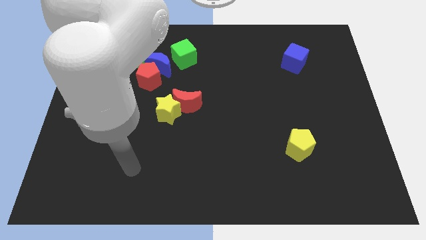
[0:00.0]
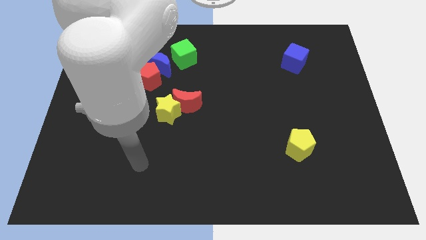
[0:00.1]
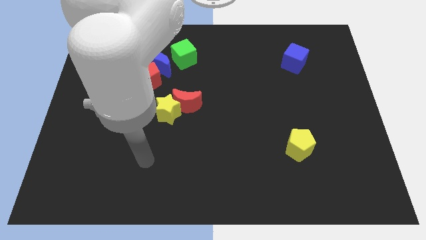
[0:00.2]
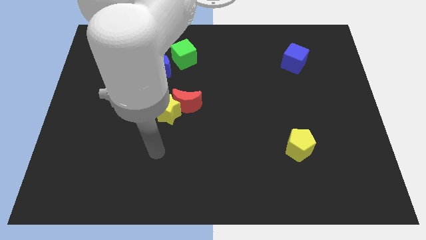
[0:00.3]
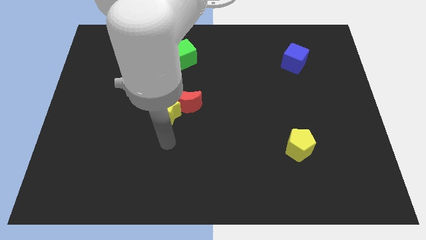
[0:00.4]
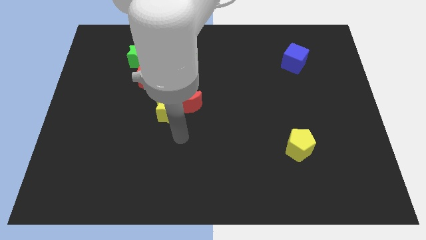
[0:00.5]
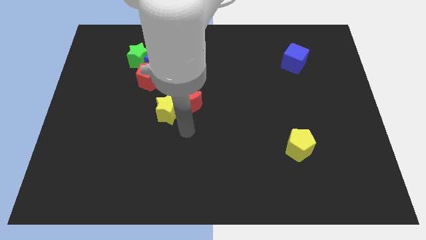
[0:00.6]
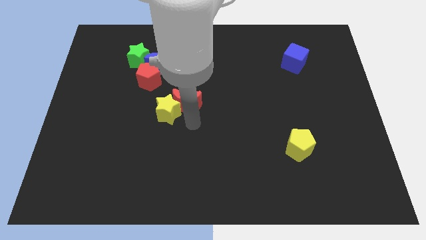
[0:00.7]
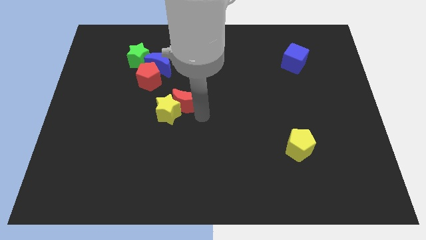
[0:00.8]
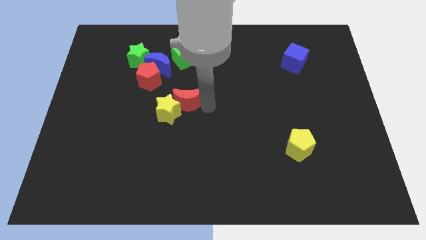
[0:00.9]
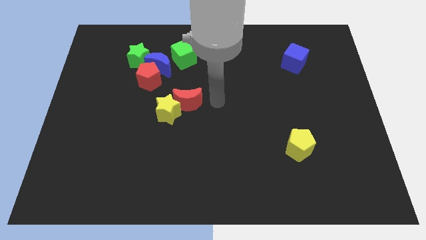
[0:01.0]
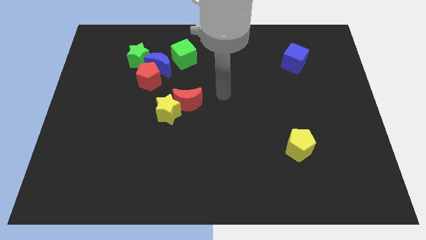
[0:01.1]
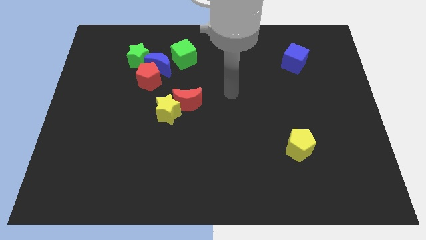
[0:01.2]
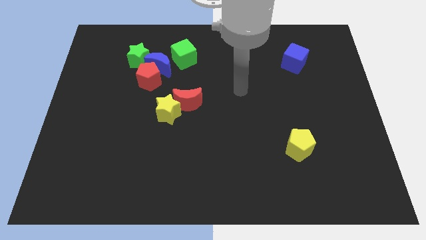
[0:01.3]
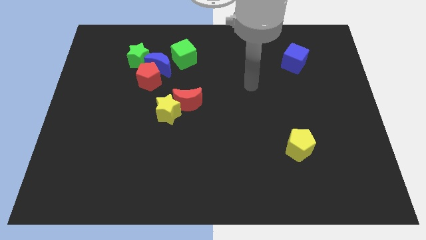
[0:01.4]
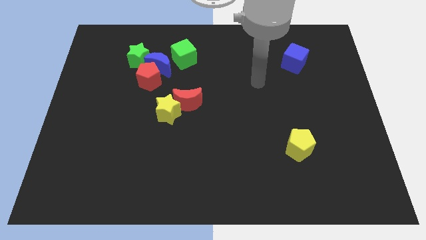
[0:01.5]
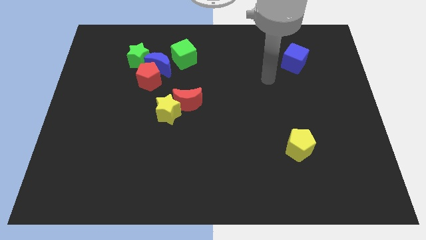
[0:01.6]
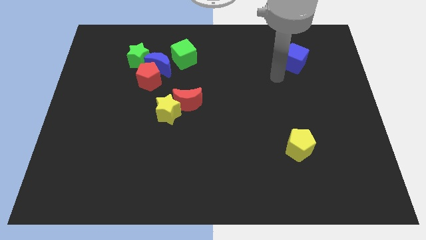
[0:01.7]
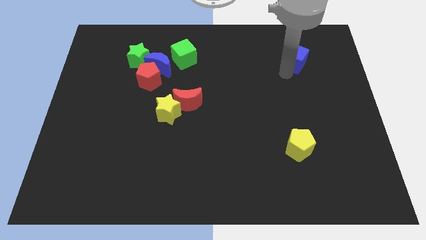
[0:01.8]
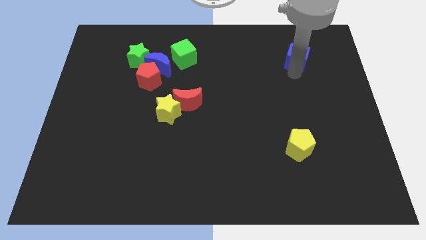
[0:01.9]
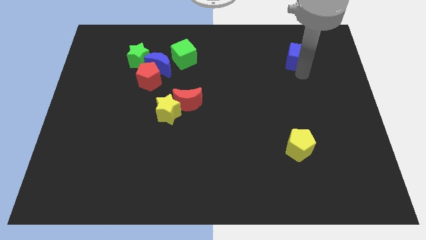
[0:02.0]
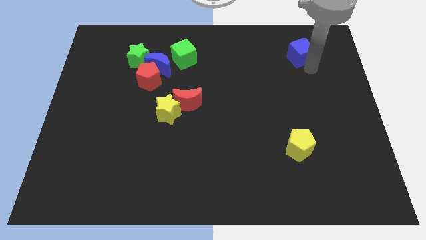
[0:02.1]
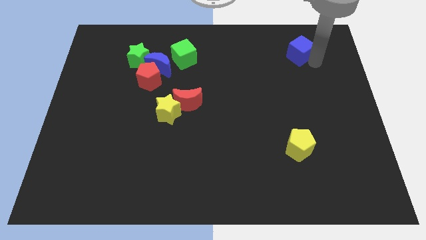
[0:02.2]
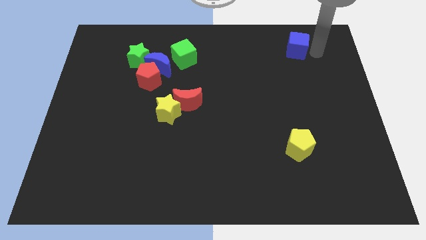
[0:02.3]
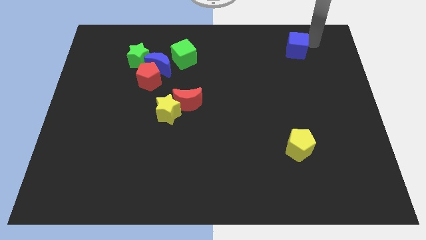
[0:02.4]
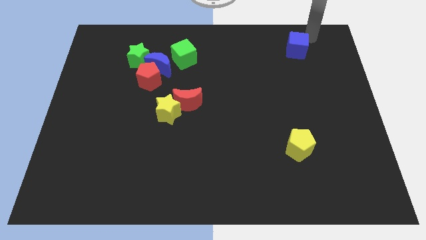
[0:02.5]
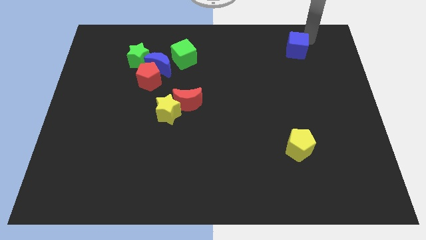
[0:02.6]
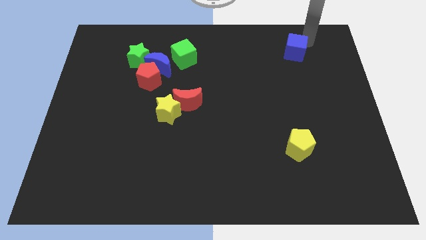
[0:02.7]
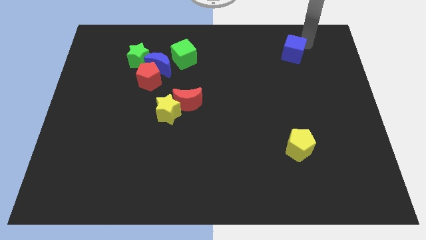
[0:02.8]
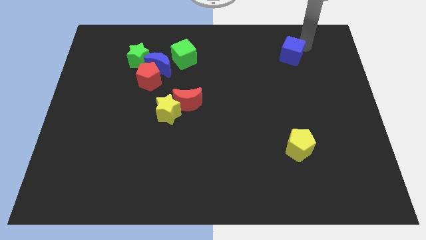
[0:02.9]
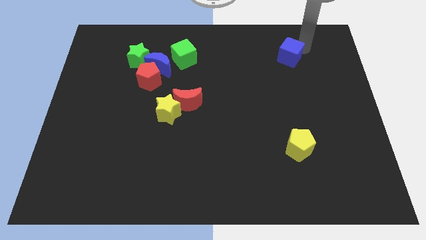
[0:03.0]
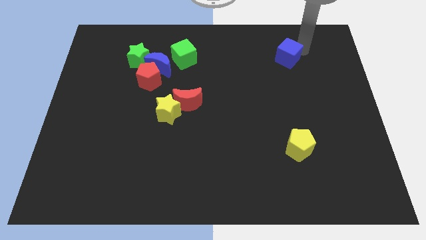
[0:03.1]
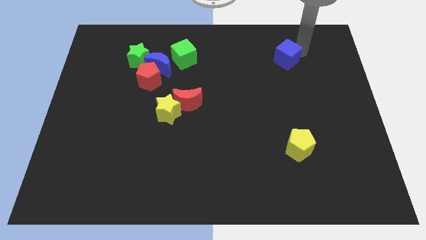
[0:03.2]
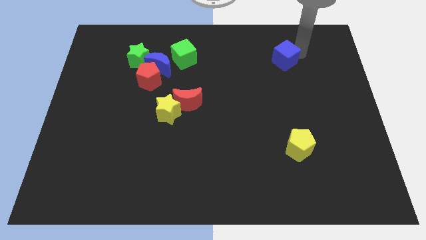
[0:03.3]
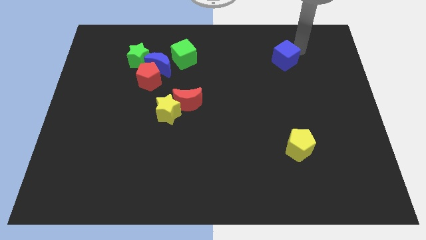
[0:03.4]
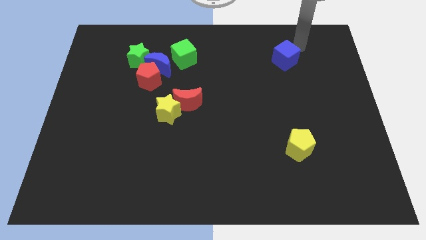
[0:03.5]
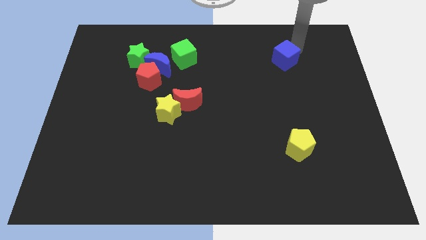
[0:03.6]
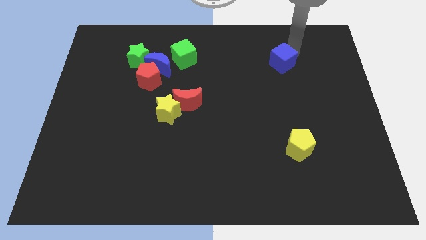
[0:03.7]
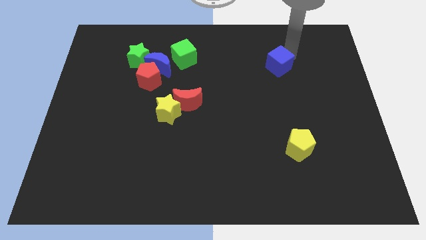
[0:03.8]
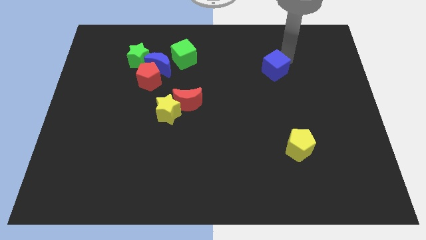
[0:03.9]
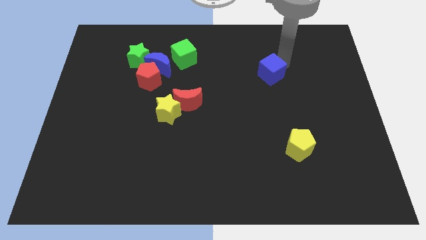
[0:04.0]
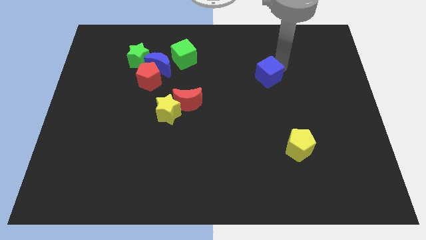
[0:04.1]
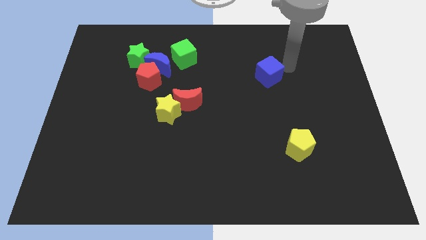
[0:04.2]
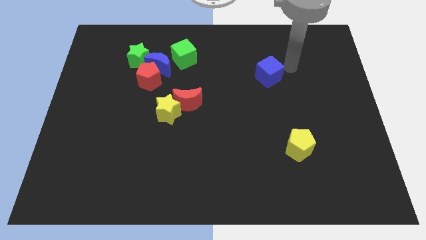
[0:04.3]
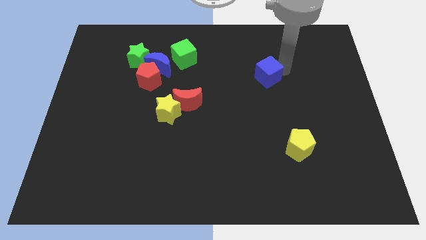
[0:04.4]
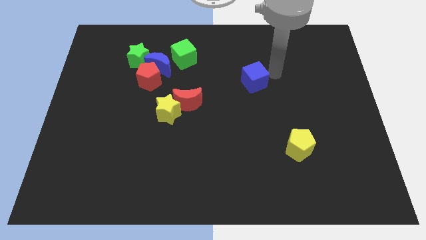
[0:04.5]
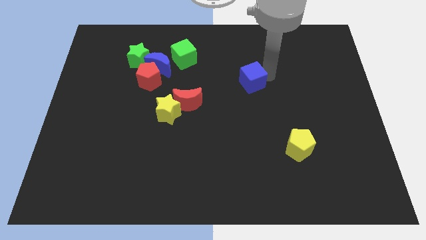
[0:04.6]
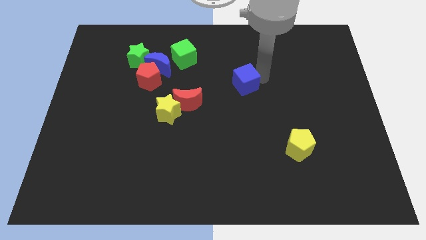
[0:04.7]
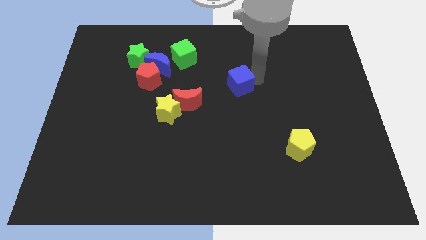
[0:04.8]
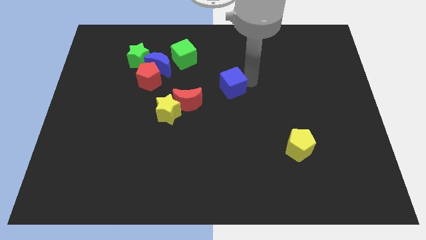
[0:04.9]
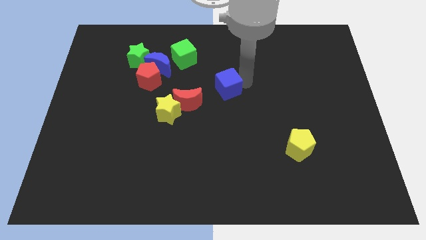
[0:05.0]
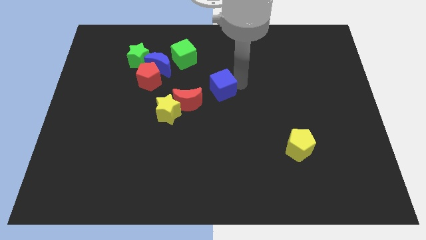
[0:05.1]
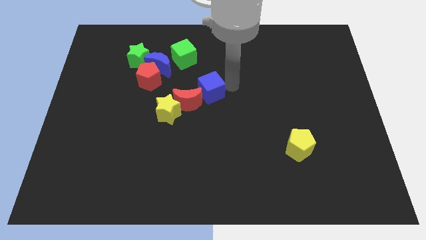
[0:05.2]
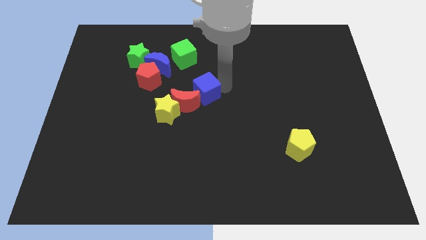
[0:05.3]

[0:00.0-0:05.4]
push the blue cube next to the red moon

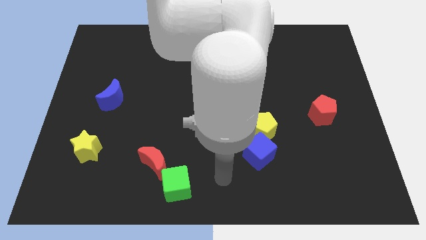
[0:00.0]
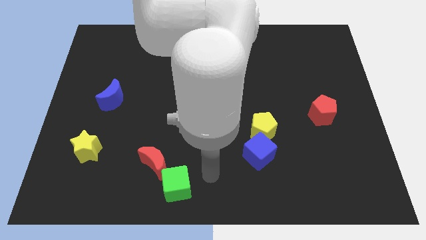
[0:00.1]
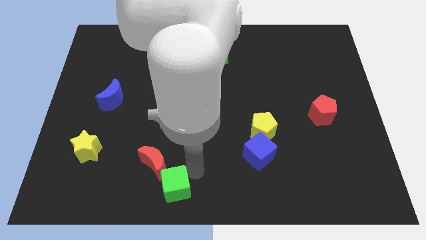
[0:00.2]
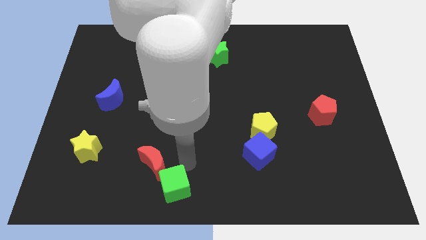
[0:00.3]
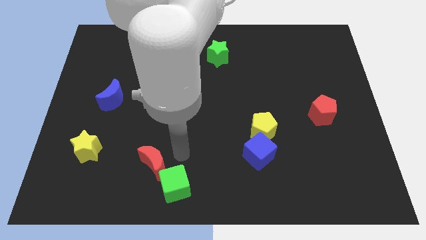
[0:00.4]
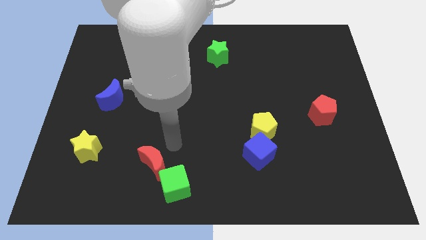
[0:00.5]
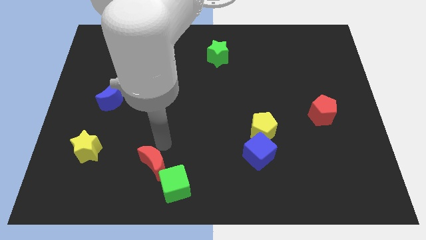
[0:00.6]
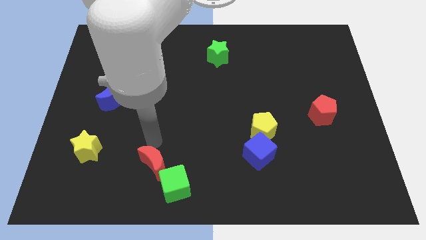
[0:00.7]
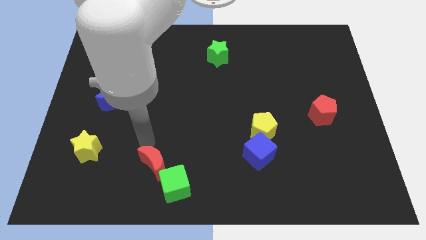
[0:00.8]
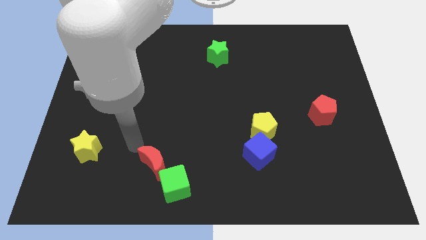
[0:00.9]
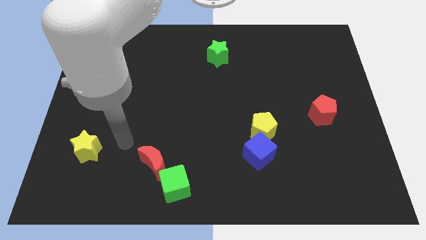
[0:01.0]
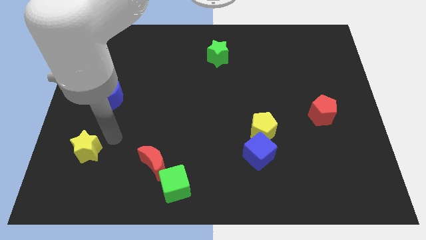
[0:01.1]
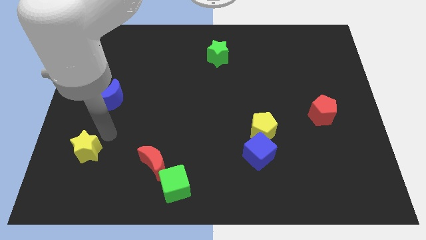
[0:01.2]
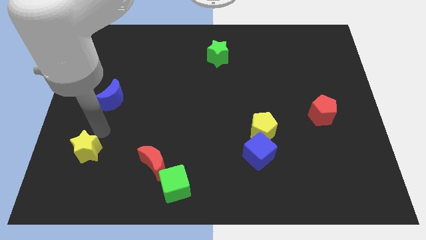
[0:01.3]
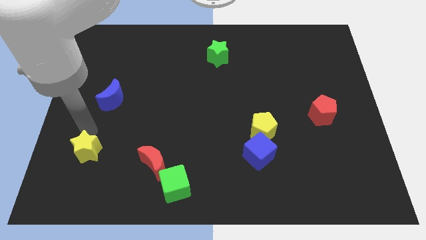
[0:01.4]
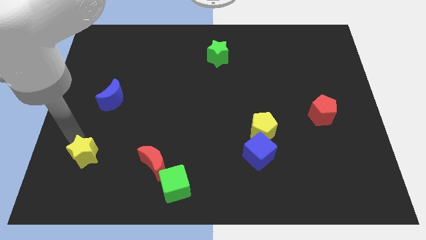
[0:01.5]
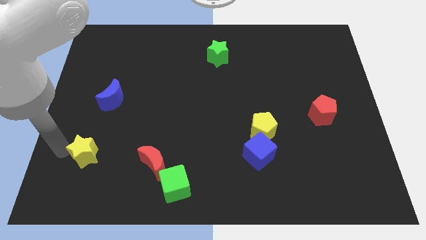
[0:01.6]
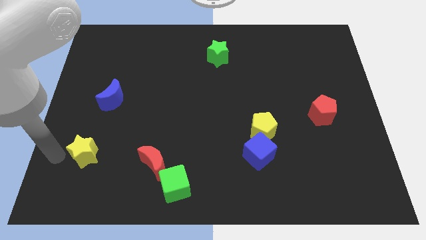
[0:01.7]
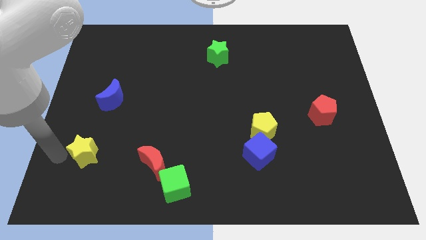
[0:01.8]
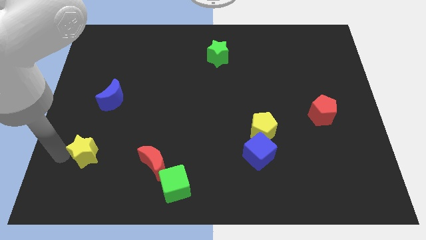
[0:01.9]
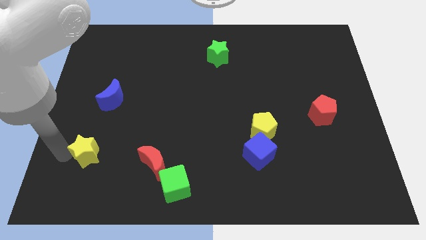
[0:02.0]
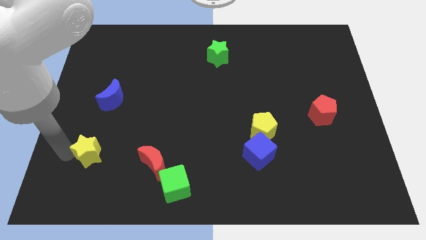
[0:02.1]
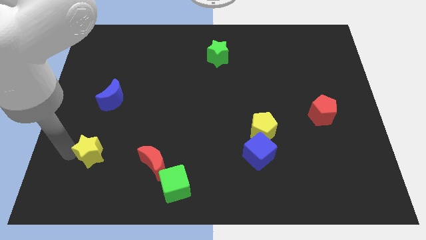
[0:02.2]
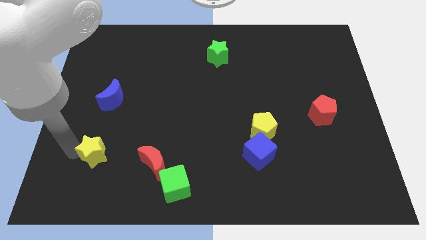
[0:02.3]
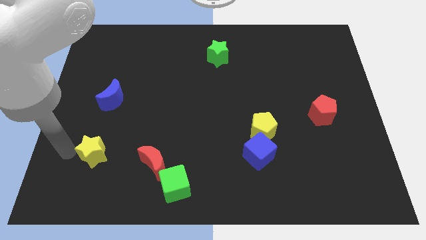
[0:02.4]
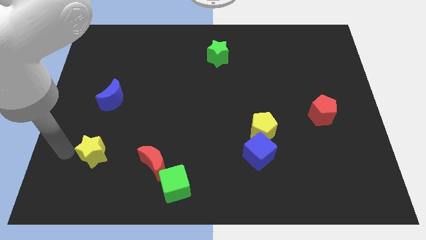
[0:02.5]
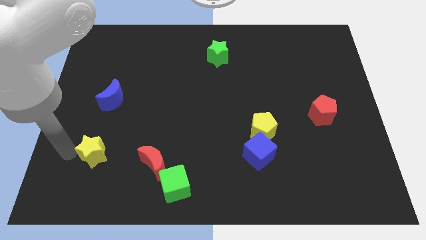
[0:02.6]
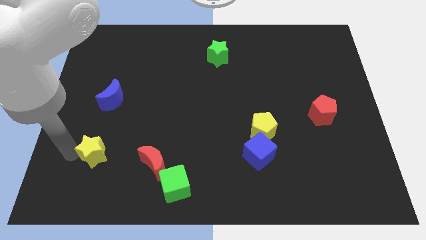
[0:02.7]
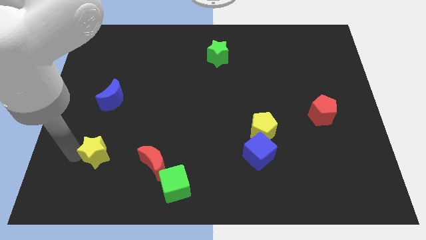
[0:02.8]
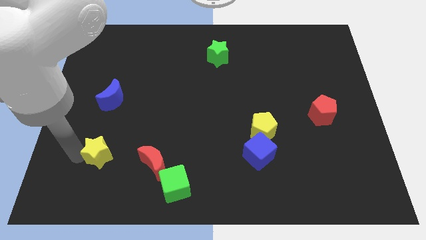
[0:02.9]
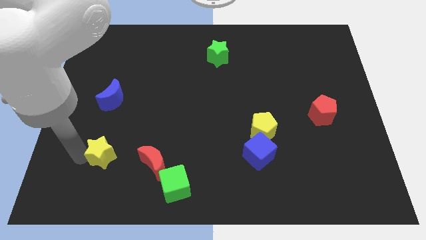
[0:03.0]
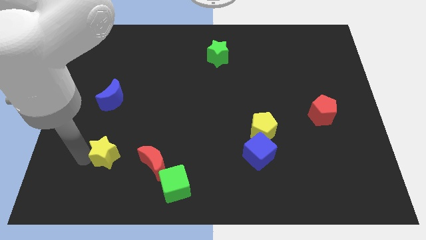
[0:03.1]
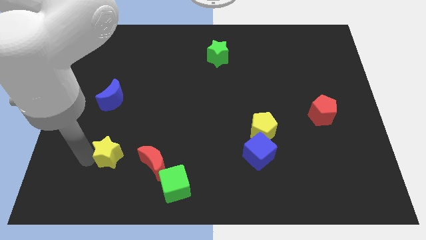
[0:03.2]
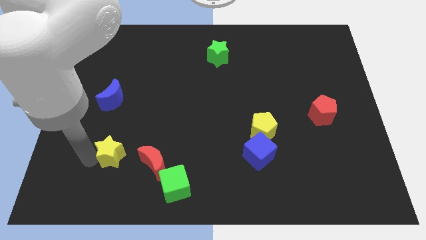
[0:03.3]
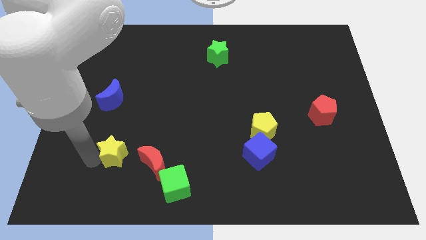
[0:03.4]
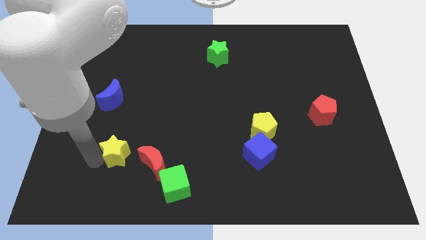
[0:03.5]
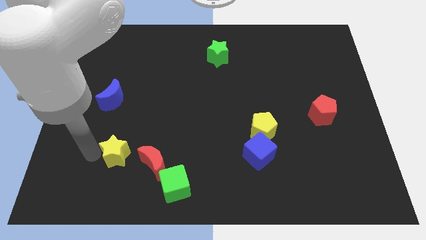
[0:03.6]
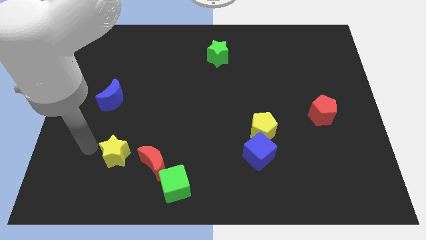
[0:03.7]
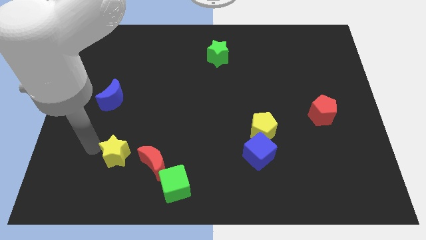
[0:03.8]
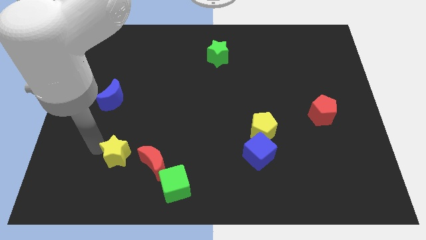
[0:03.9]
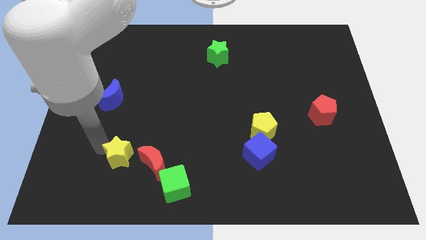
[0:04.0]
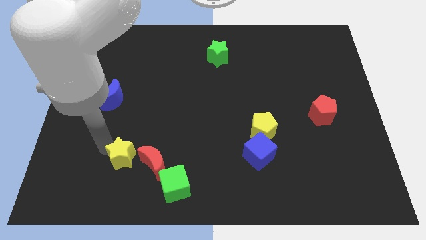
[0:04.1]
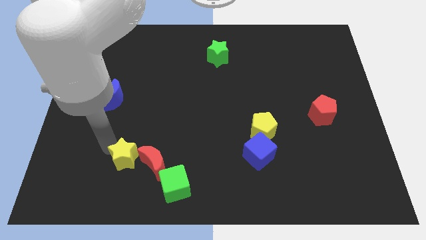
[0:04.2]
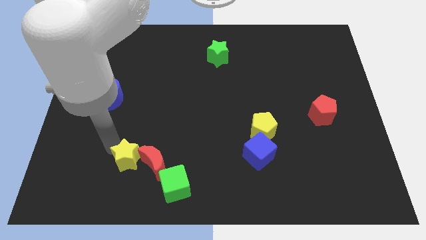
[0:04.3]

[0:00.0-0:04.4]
push the yellow star next to the red moon
